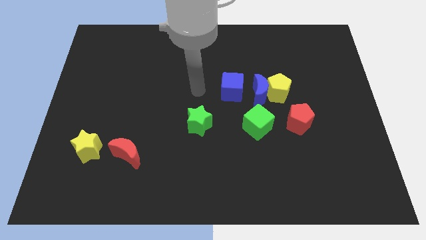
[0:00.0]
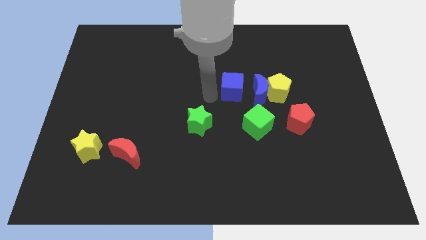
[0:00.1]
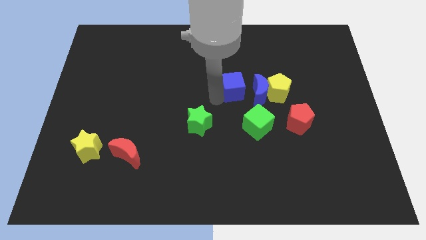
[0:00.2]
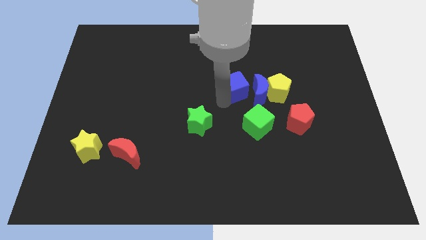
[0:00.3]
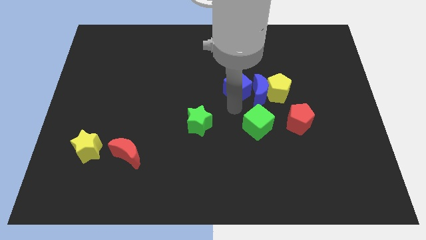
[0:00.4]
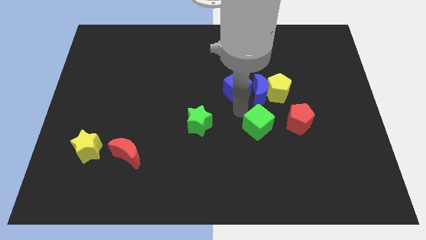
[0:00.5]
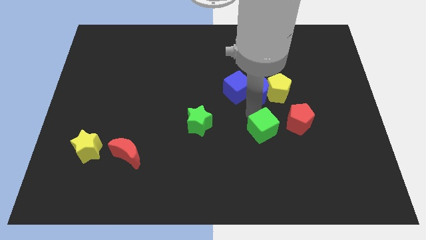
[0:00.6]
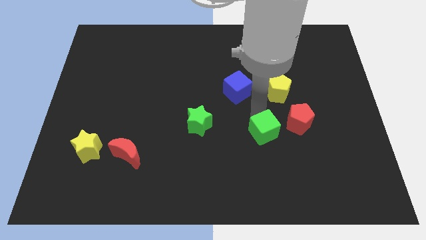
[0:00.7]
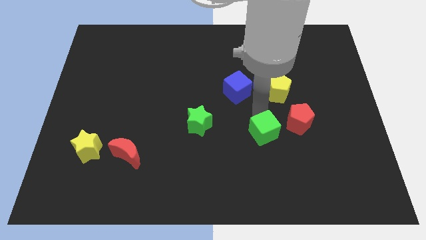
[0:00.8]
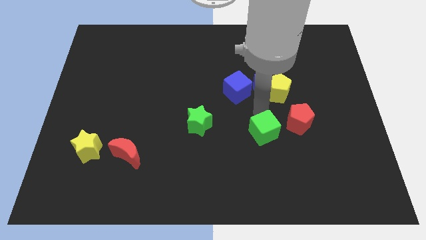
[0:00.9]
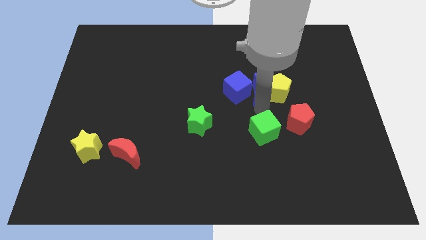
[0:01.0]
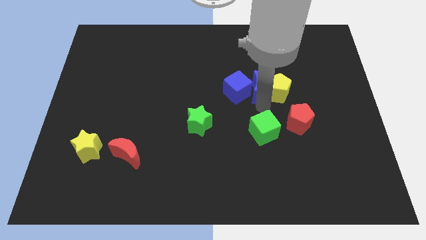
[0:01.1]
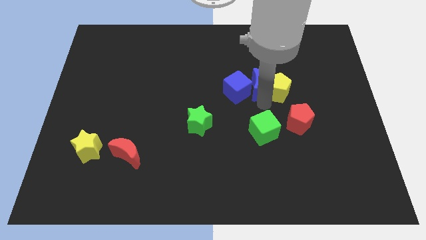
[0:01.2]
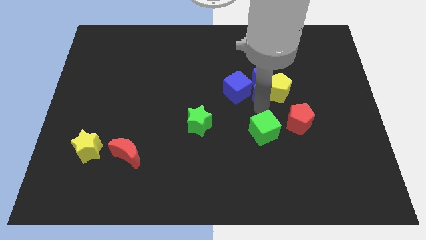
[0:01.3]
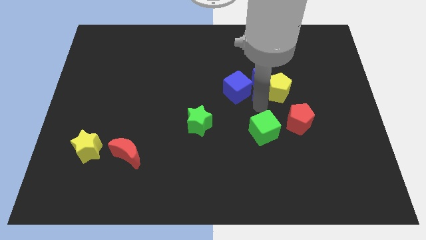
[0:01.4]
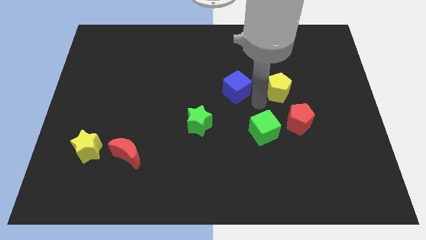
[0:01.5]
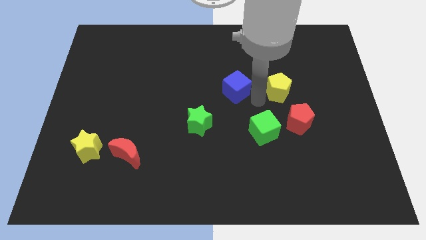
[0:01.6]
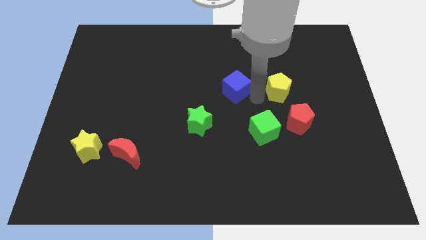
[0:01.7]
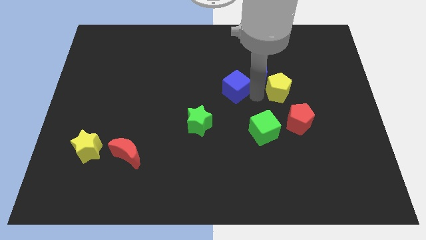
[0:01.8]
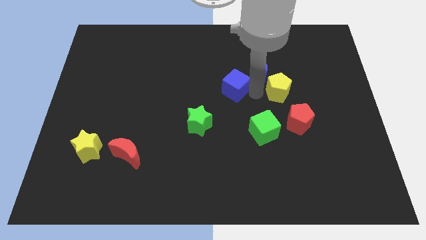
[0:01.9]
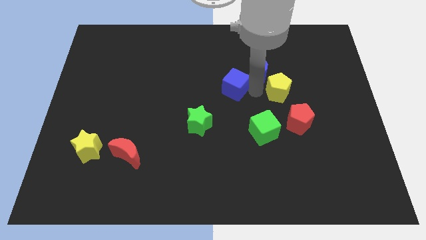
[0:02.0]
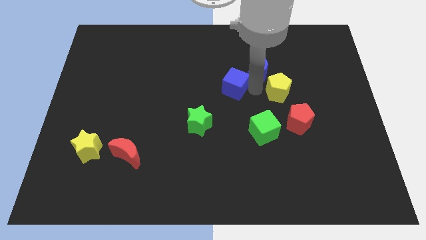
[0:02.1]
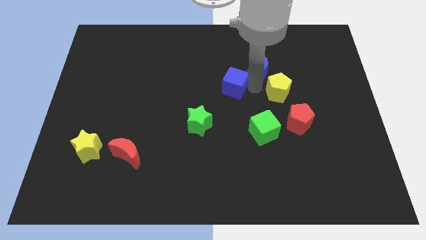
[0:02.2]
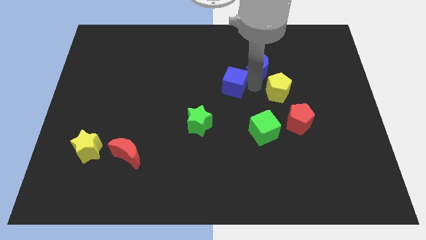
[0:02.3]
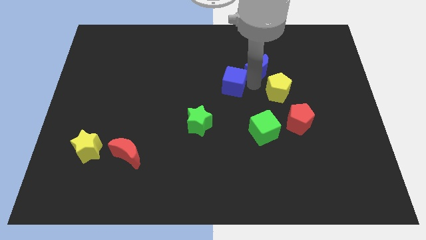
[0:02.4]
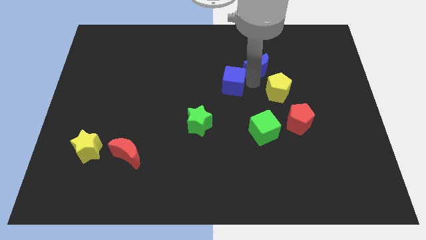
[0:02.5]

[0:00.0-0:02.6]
pull the blue moon apart from the yellow pentagon, blue cube, and green cube

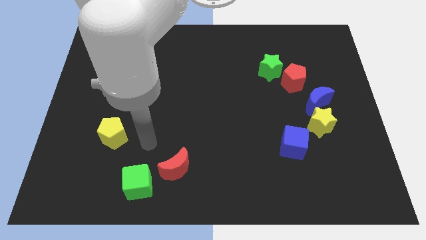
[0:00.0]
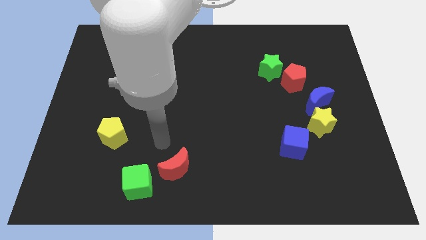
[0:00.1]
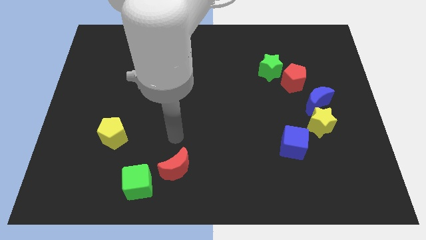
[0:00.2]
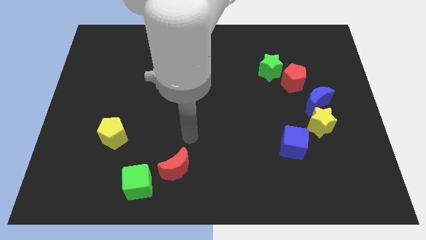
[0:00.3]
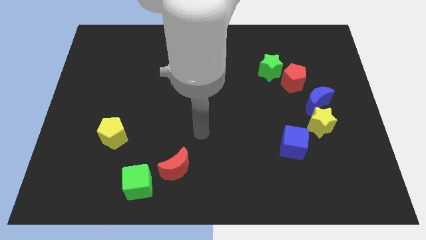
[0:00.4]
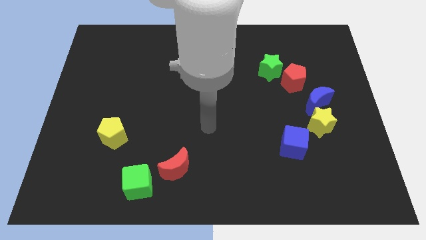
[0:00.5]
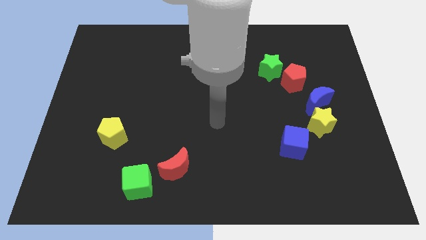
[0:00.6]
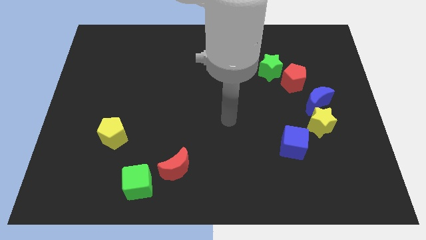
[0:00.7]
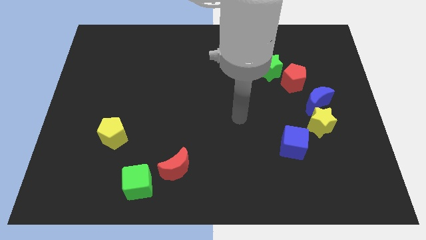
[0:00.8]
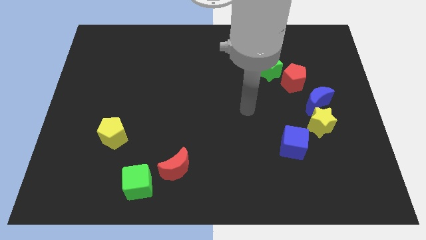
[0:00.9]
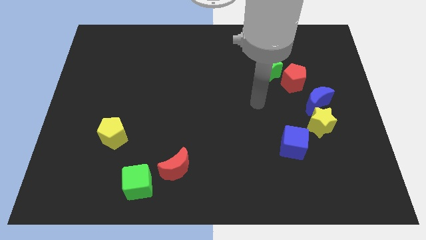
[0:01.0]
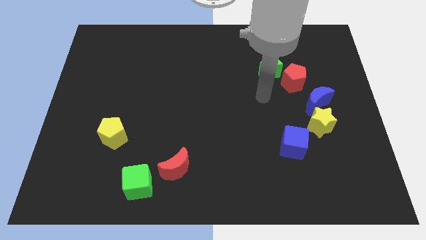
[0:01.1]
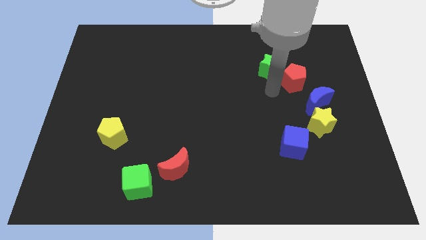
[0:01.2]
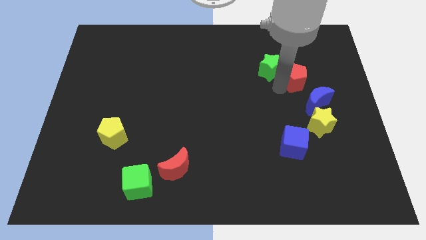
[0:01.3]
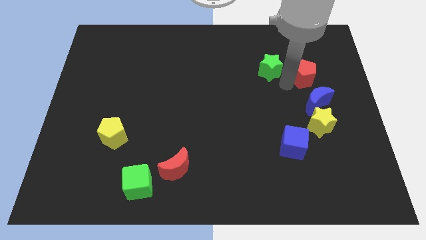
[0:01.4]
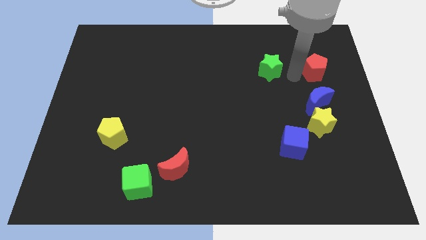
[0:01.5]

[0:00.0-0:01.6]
move the green star away from the red pentagon

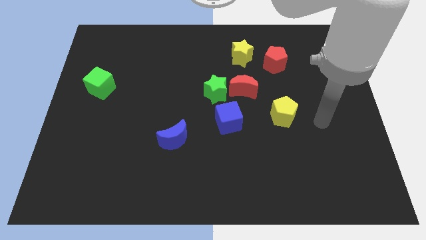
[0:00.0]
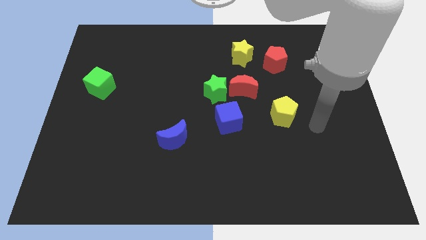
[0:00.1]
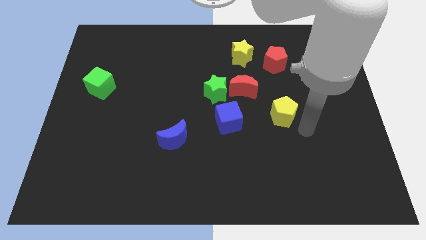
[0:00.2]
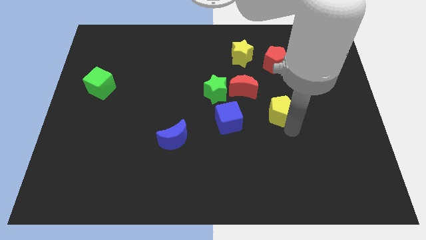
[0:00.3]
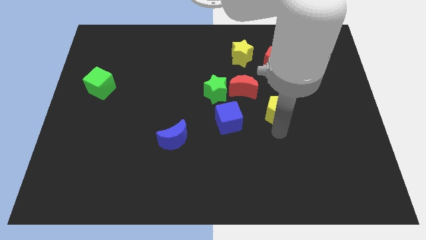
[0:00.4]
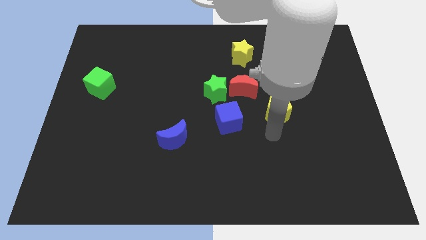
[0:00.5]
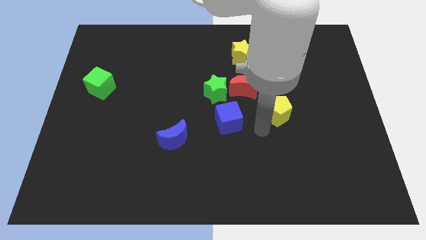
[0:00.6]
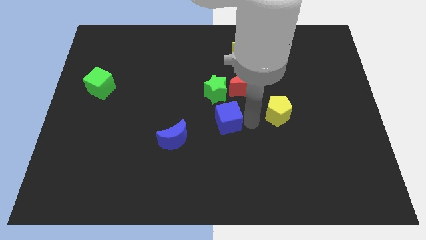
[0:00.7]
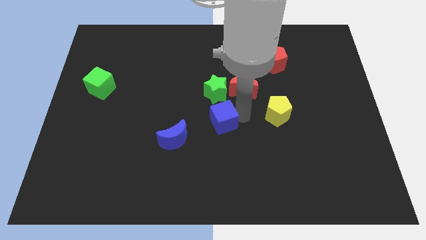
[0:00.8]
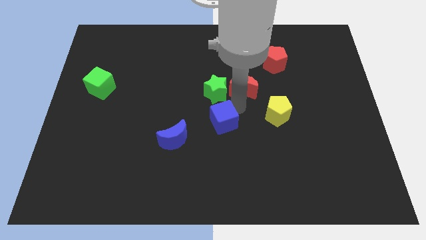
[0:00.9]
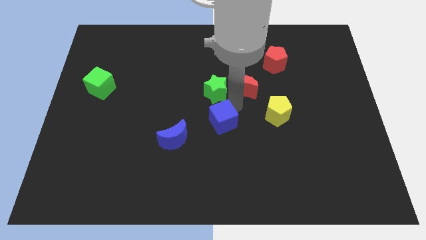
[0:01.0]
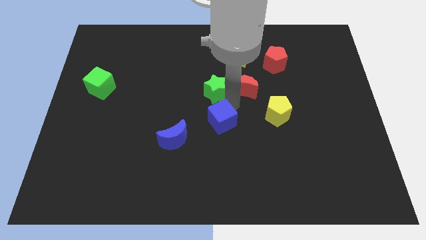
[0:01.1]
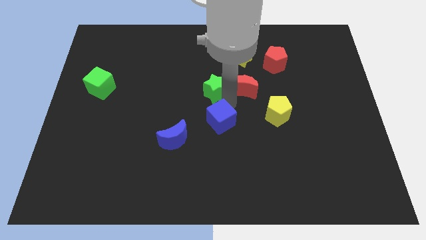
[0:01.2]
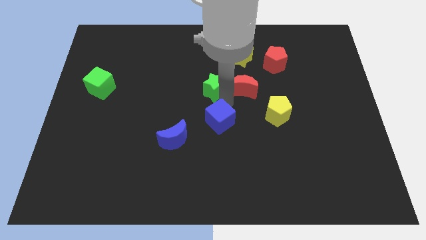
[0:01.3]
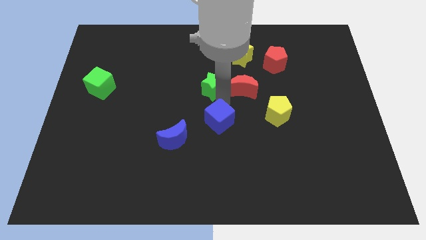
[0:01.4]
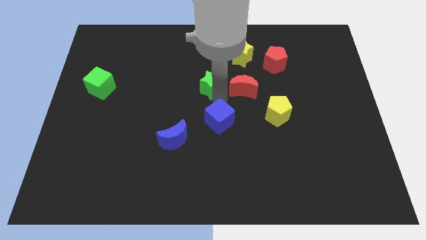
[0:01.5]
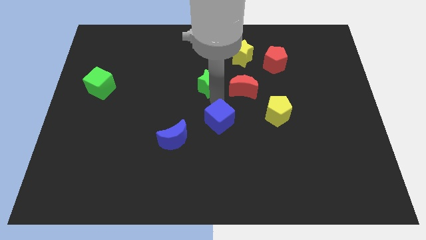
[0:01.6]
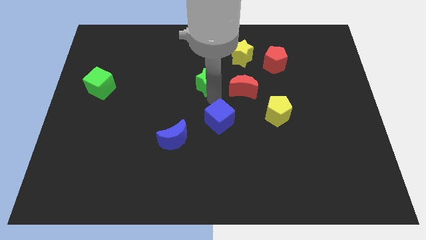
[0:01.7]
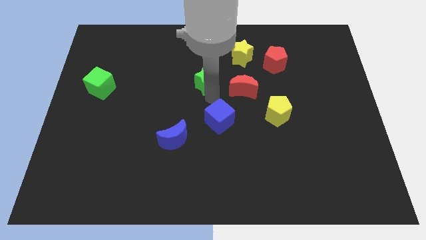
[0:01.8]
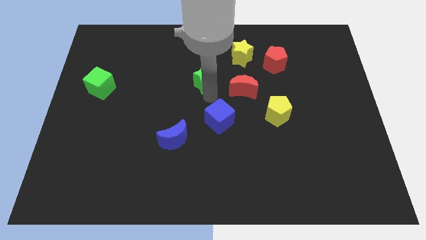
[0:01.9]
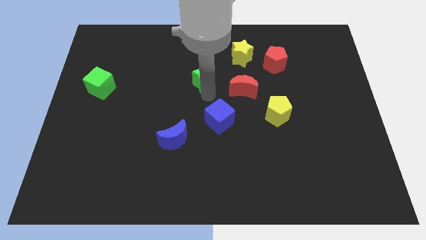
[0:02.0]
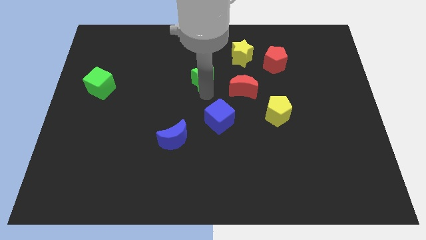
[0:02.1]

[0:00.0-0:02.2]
pull the green star apart from the red moon and blue cube

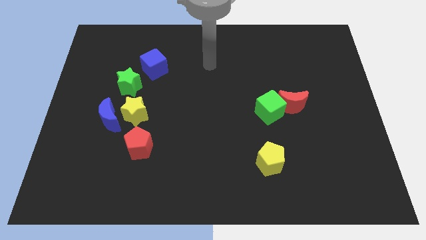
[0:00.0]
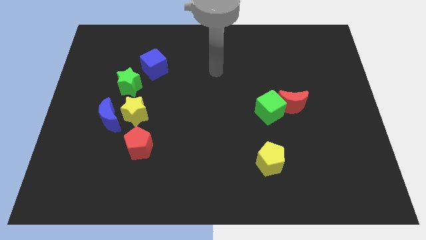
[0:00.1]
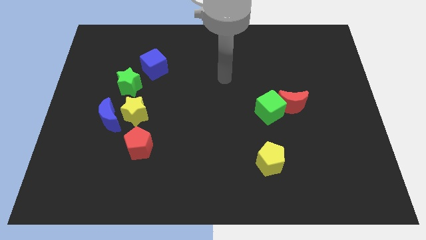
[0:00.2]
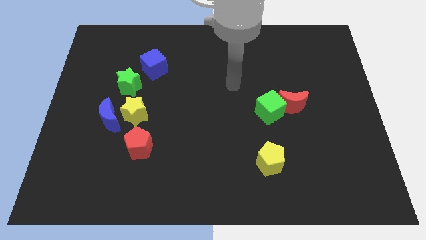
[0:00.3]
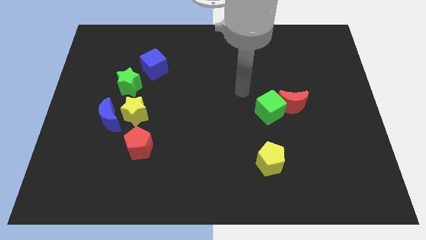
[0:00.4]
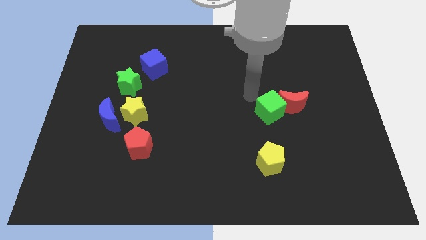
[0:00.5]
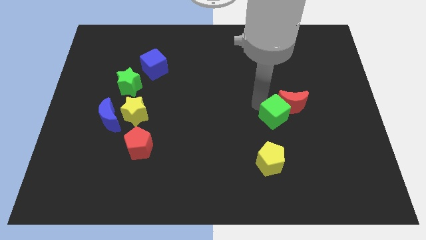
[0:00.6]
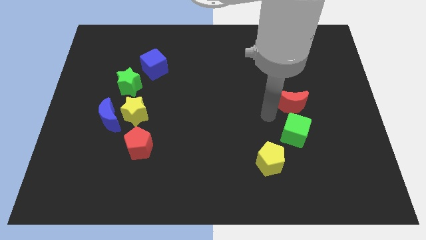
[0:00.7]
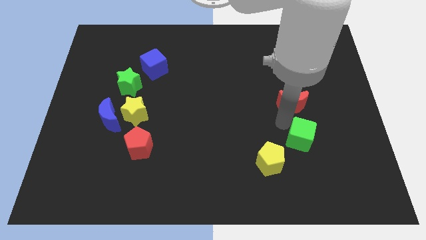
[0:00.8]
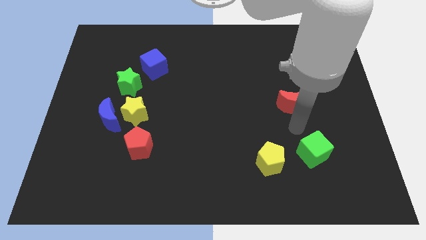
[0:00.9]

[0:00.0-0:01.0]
pull the red moon apart from the green cube

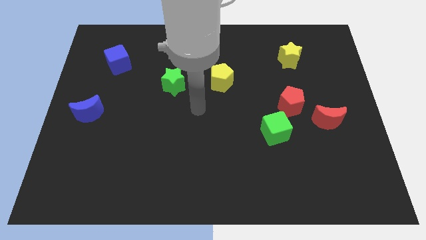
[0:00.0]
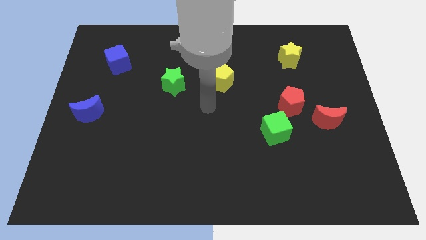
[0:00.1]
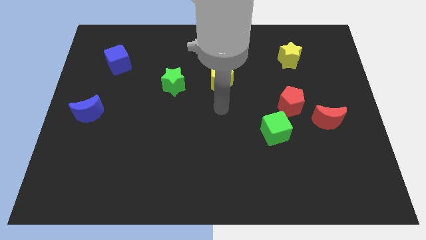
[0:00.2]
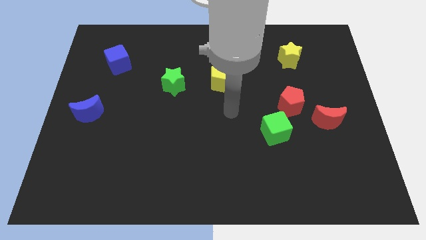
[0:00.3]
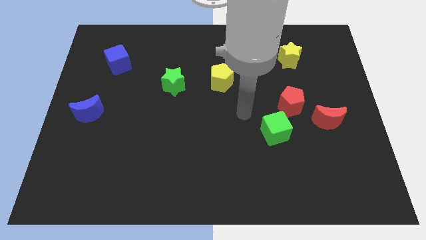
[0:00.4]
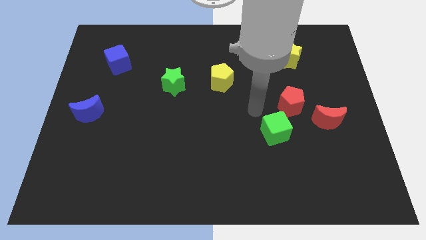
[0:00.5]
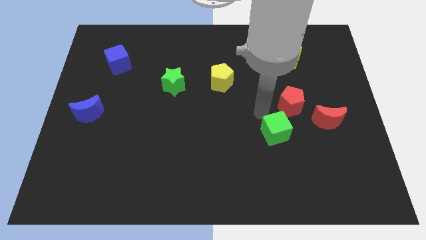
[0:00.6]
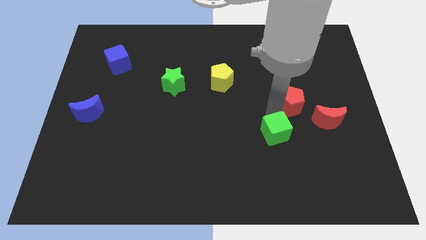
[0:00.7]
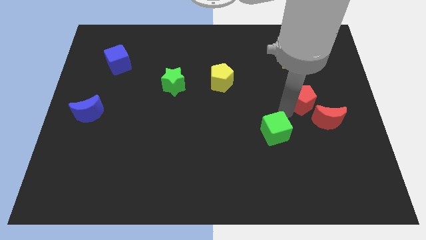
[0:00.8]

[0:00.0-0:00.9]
pull the green cube apart from the red pentagon

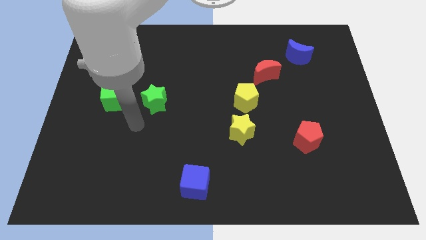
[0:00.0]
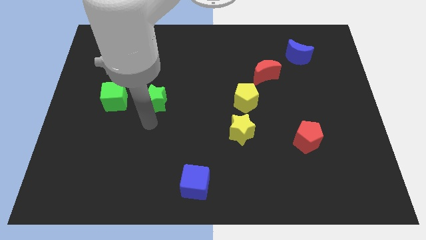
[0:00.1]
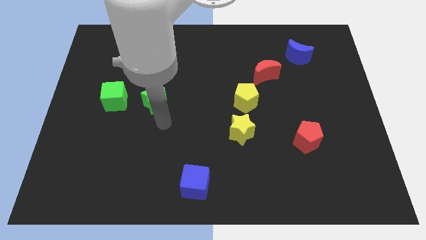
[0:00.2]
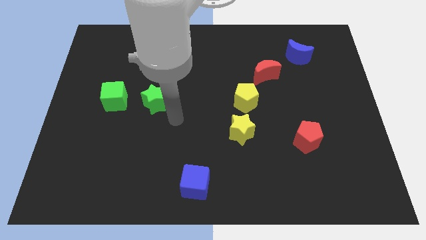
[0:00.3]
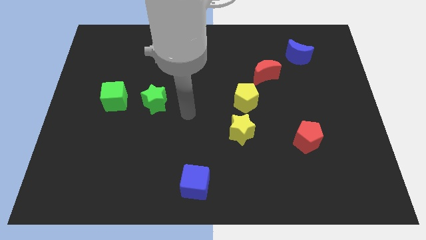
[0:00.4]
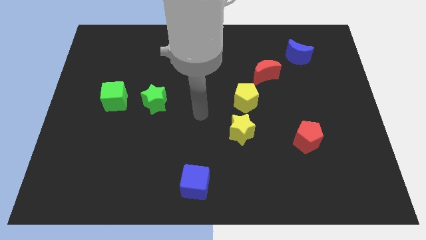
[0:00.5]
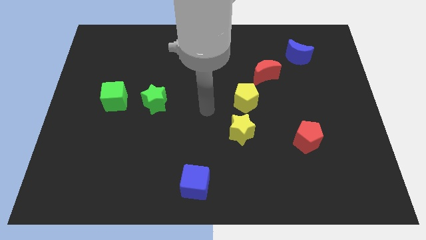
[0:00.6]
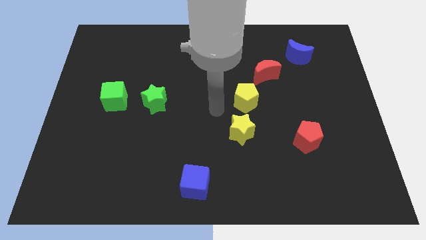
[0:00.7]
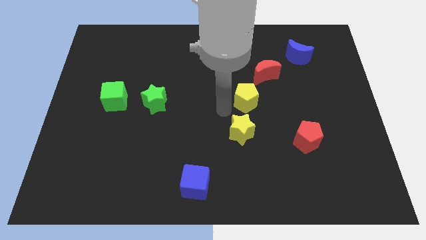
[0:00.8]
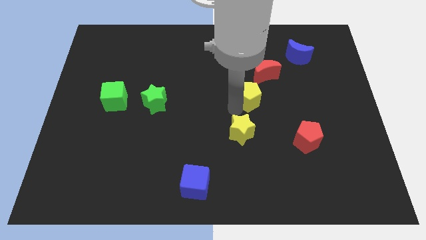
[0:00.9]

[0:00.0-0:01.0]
pull the yellow star apart from the yellow pentagon
